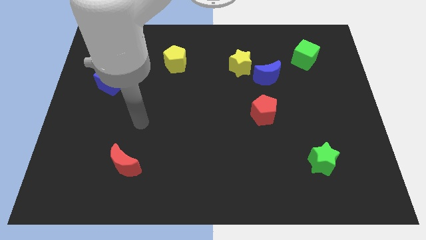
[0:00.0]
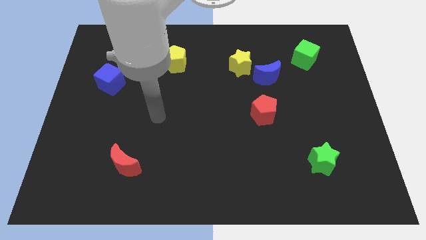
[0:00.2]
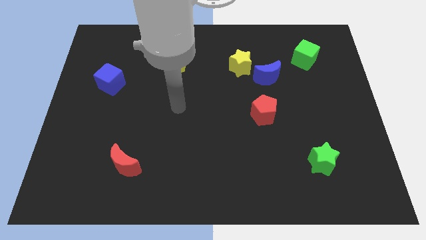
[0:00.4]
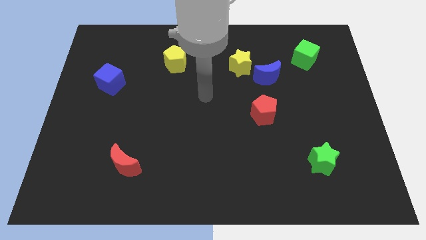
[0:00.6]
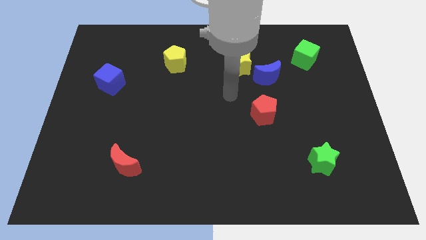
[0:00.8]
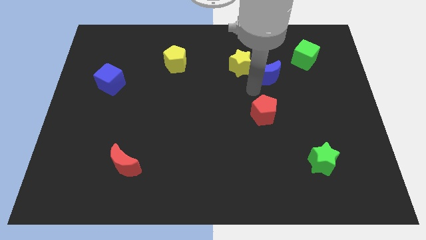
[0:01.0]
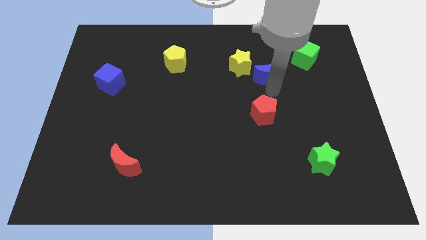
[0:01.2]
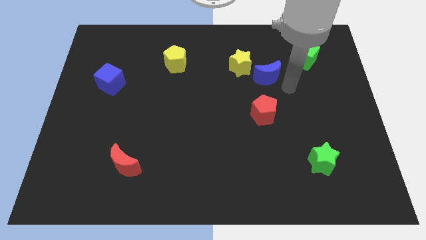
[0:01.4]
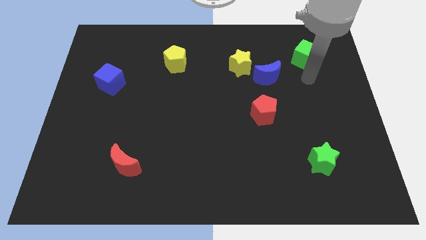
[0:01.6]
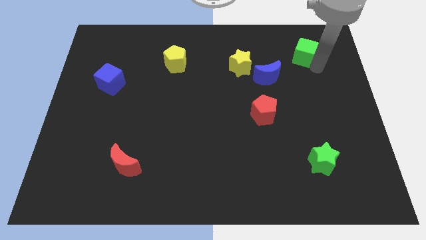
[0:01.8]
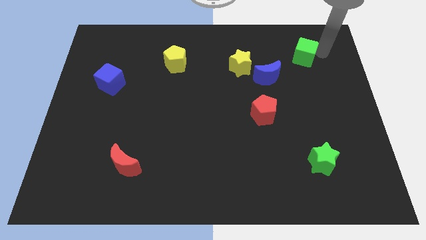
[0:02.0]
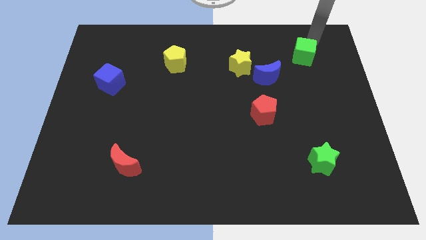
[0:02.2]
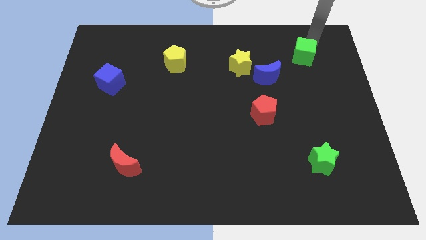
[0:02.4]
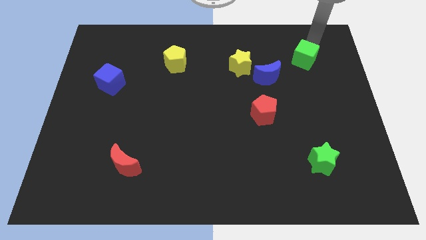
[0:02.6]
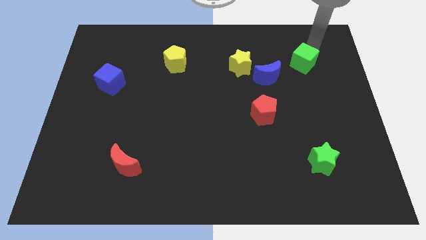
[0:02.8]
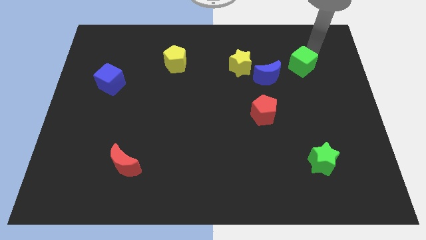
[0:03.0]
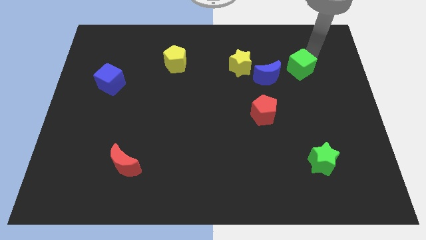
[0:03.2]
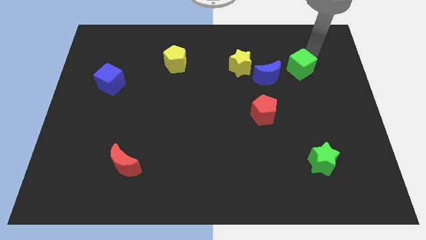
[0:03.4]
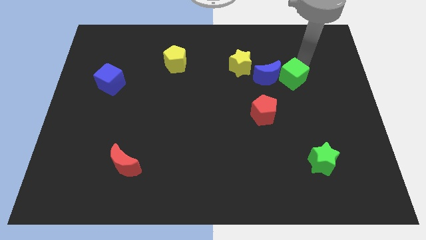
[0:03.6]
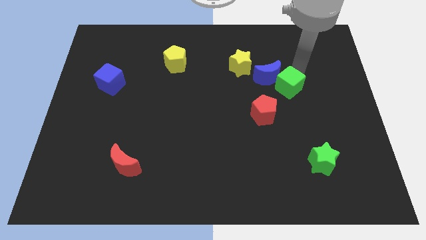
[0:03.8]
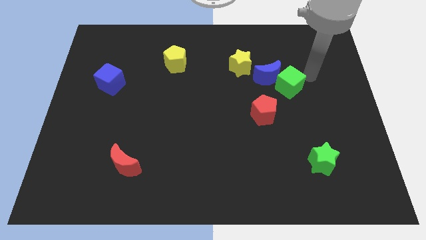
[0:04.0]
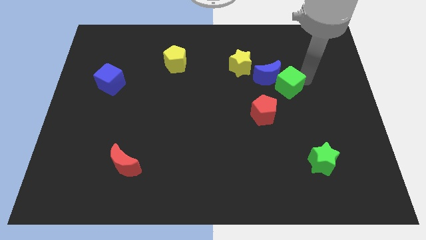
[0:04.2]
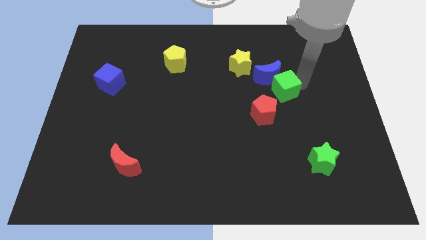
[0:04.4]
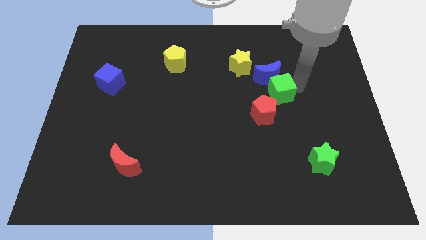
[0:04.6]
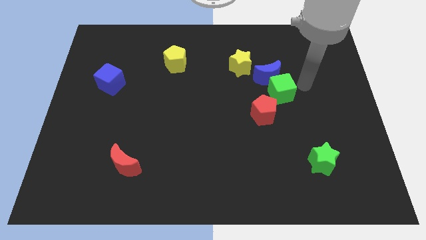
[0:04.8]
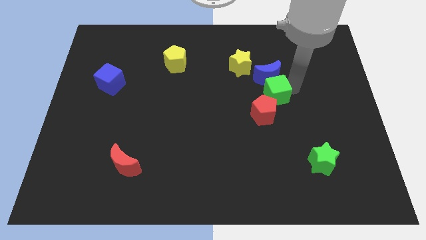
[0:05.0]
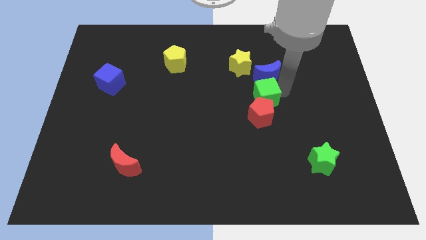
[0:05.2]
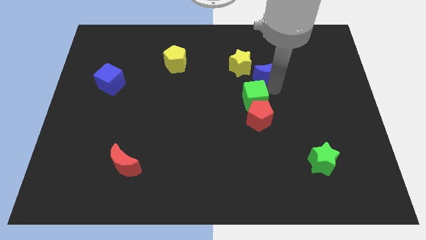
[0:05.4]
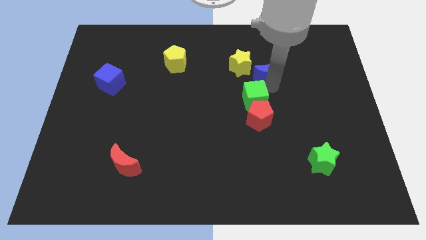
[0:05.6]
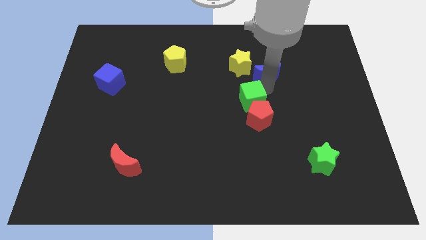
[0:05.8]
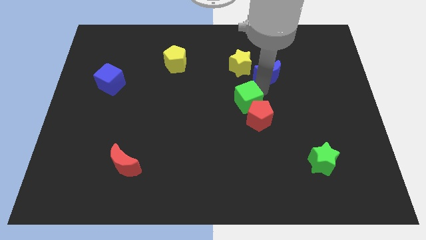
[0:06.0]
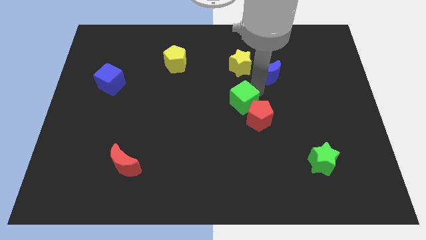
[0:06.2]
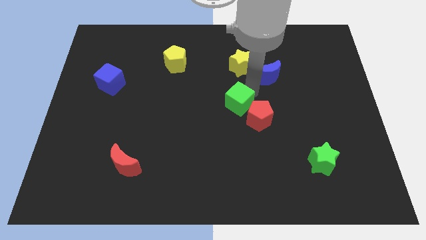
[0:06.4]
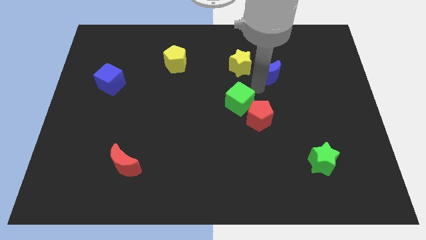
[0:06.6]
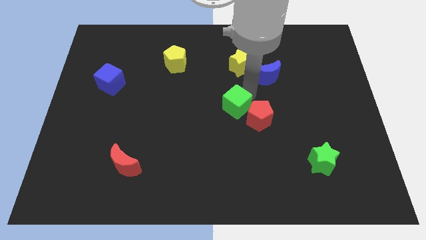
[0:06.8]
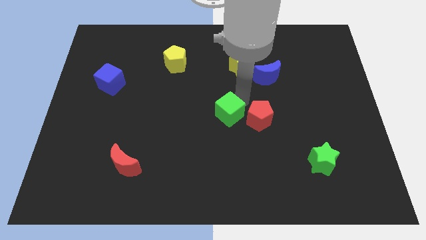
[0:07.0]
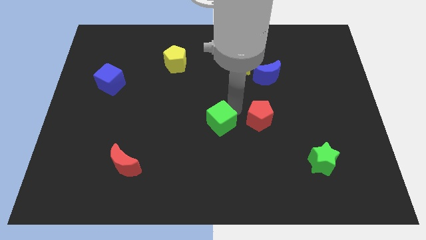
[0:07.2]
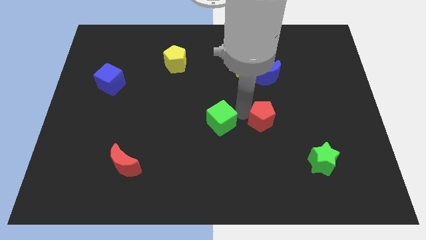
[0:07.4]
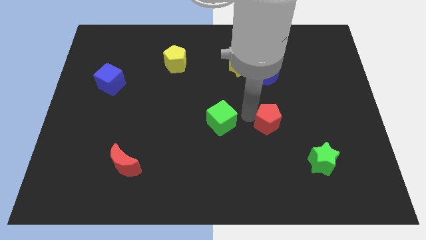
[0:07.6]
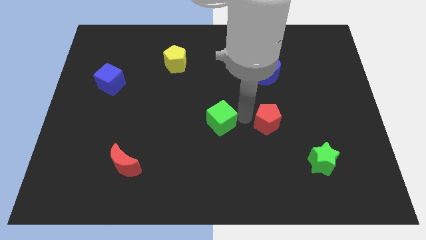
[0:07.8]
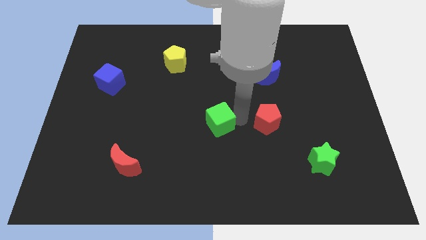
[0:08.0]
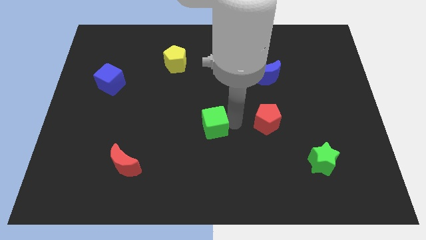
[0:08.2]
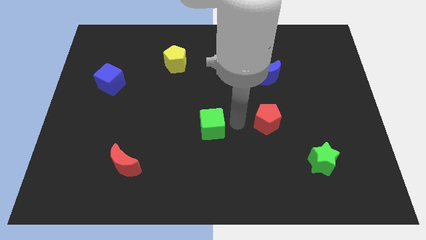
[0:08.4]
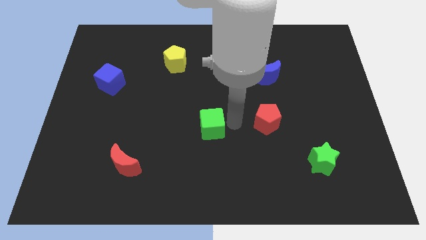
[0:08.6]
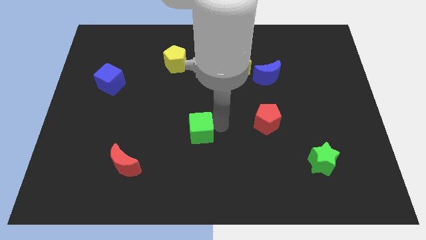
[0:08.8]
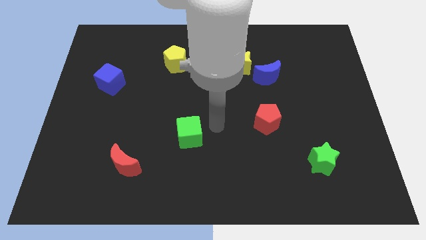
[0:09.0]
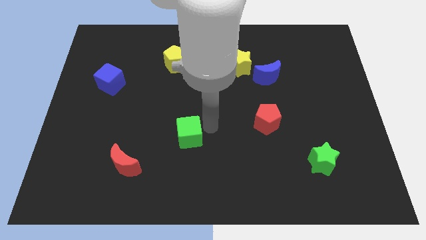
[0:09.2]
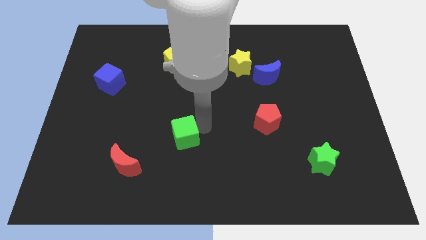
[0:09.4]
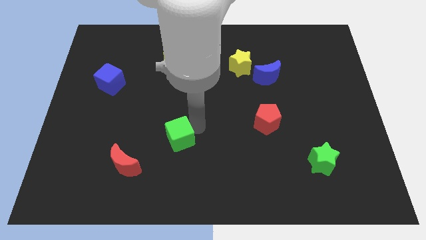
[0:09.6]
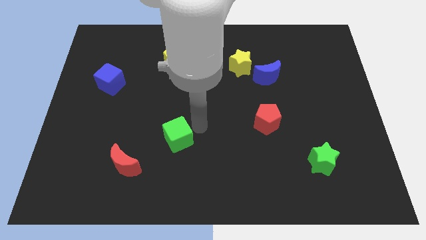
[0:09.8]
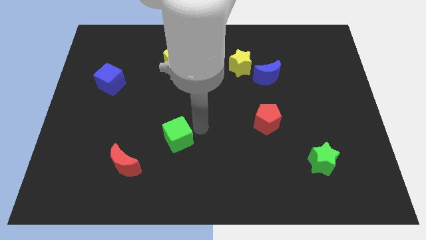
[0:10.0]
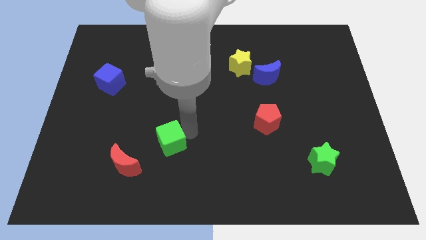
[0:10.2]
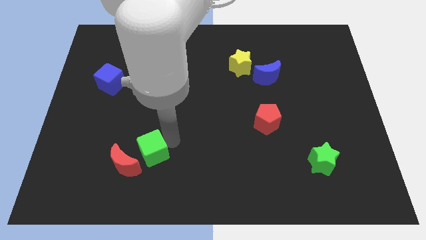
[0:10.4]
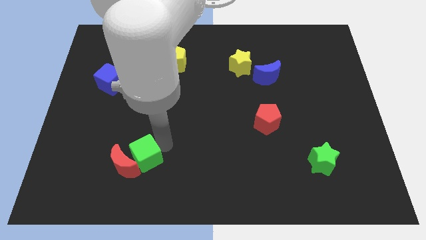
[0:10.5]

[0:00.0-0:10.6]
push the green cube towards the red moon

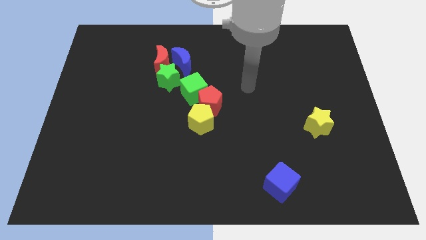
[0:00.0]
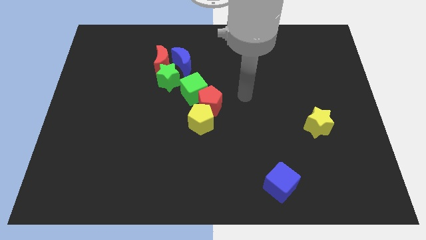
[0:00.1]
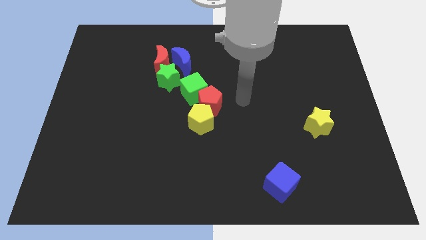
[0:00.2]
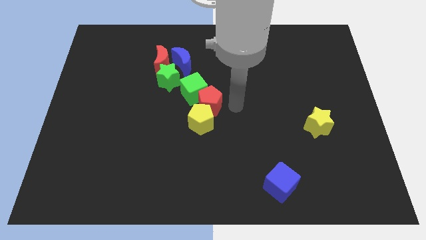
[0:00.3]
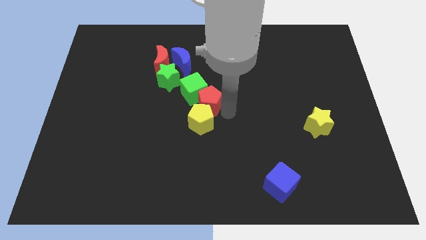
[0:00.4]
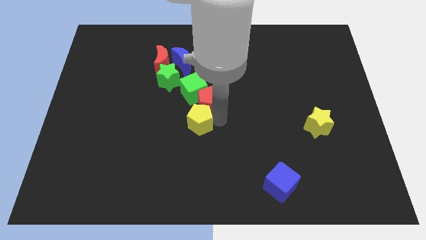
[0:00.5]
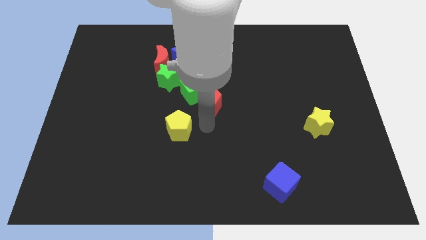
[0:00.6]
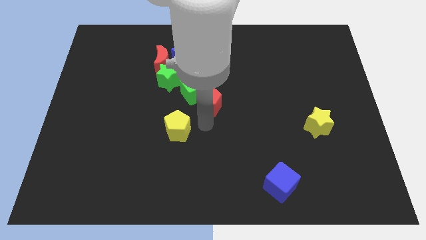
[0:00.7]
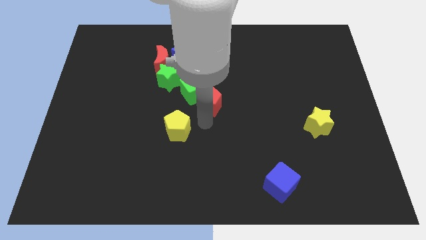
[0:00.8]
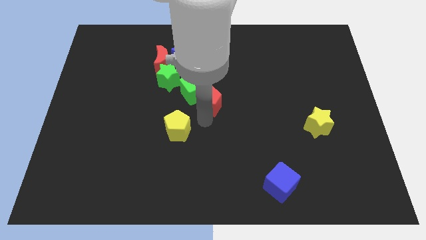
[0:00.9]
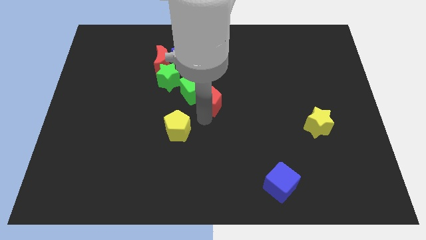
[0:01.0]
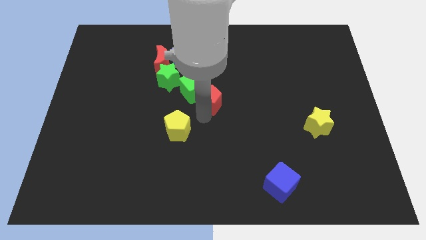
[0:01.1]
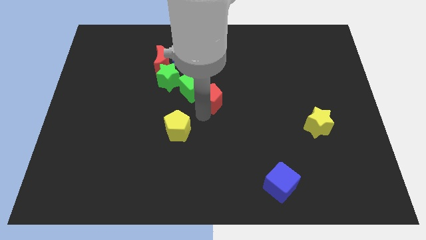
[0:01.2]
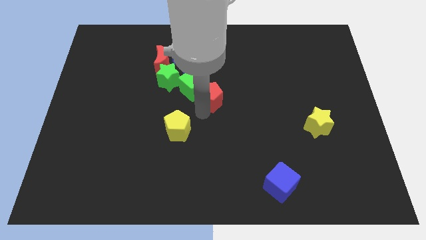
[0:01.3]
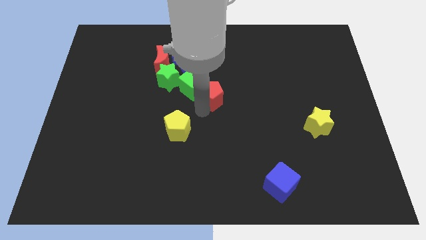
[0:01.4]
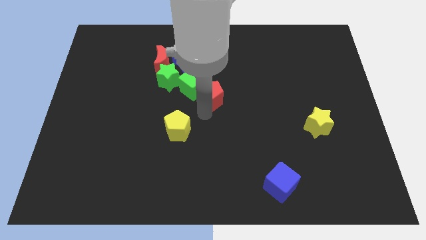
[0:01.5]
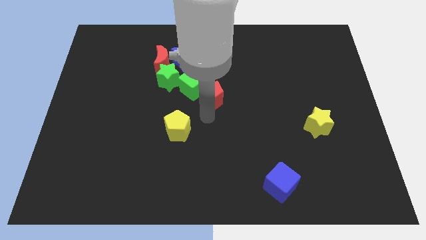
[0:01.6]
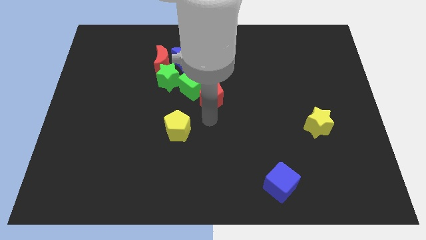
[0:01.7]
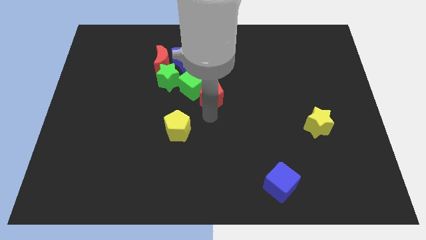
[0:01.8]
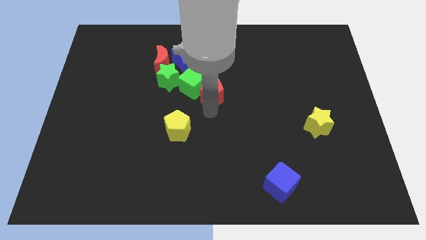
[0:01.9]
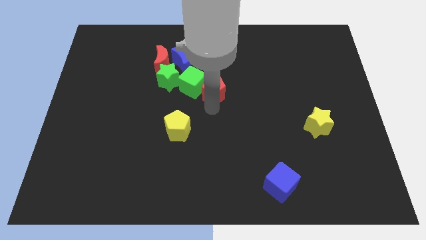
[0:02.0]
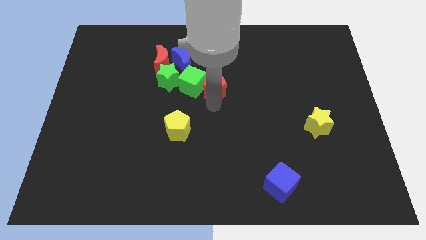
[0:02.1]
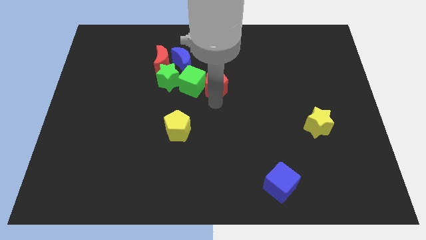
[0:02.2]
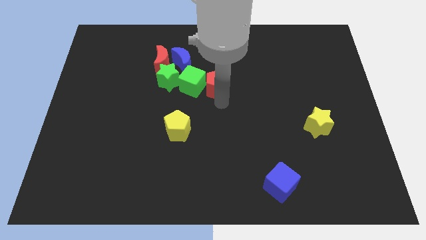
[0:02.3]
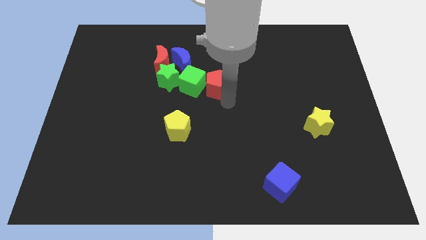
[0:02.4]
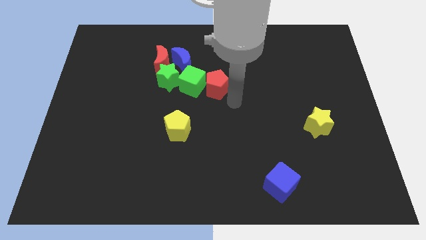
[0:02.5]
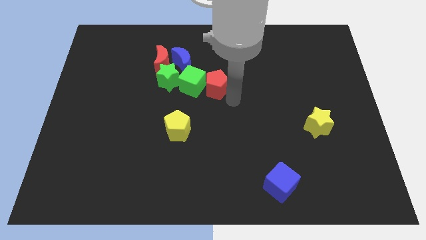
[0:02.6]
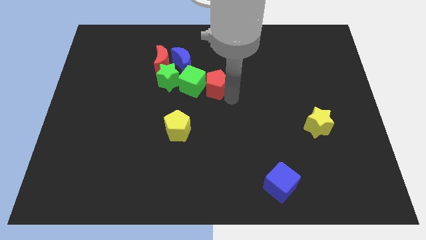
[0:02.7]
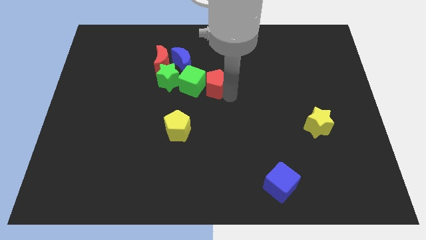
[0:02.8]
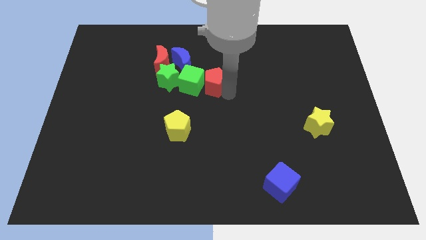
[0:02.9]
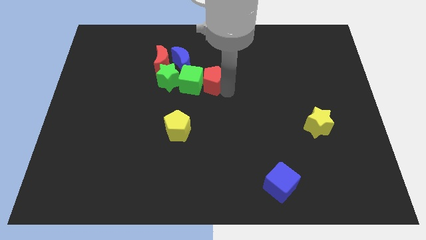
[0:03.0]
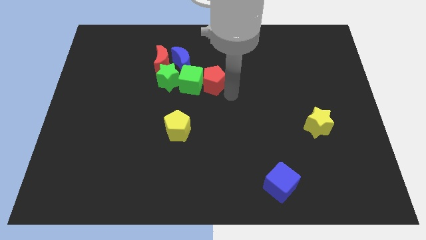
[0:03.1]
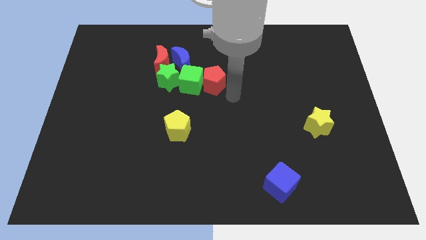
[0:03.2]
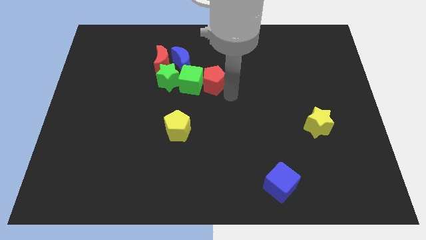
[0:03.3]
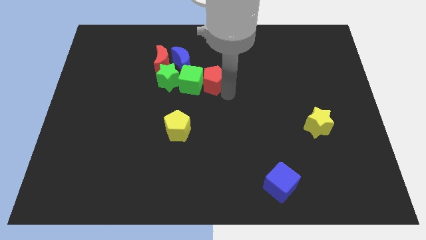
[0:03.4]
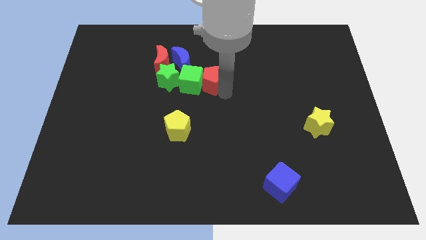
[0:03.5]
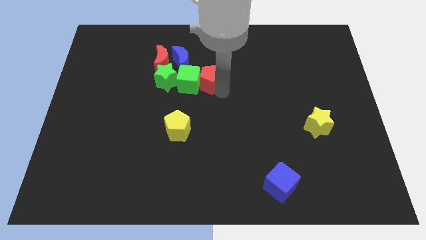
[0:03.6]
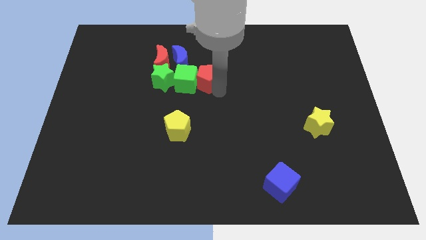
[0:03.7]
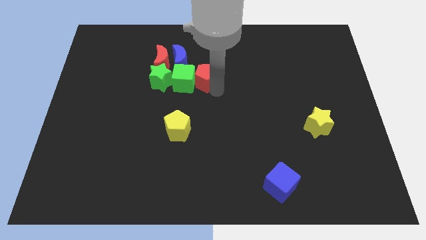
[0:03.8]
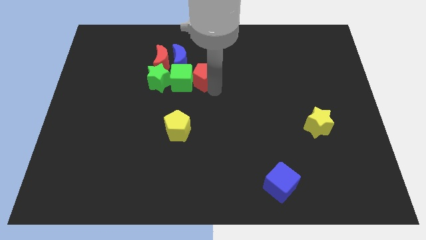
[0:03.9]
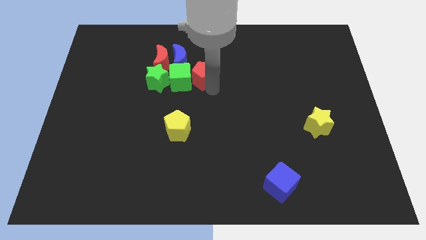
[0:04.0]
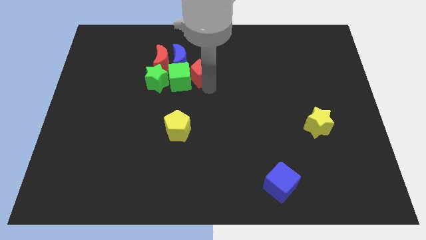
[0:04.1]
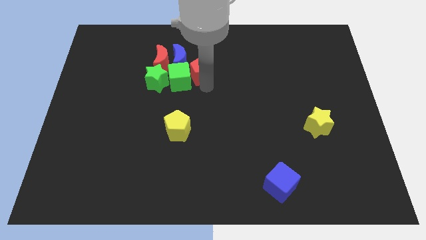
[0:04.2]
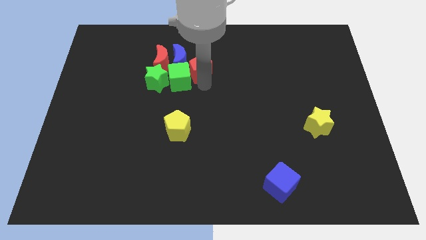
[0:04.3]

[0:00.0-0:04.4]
push the red pentagon to the blue moon
